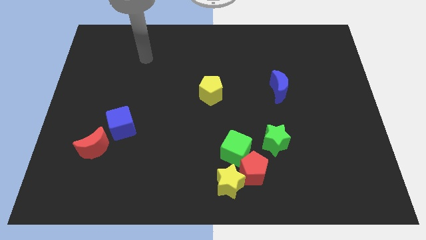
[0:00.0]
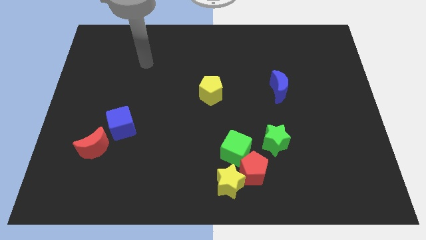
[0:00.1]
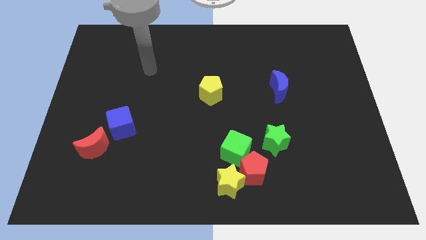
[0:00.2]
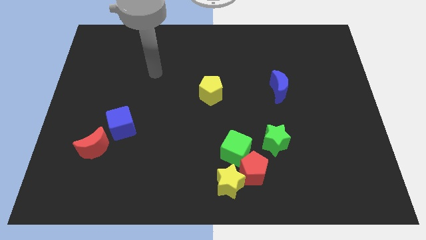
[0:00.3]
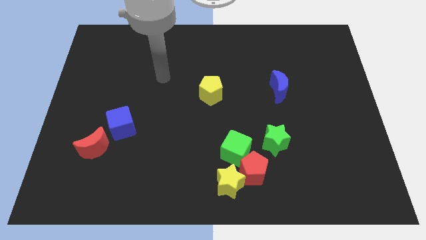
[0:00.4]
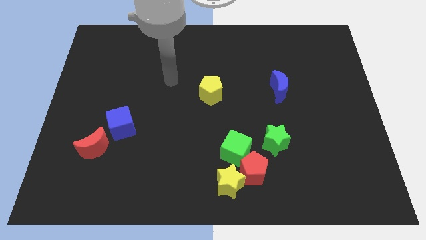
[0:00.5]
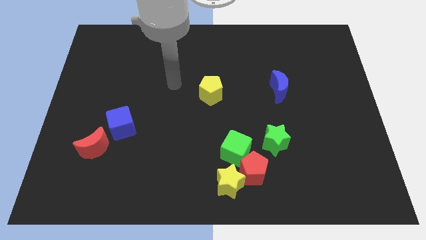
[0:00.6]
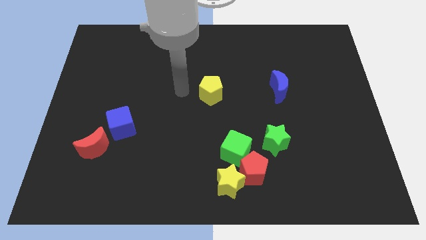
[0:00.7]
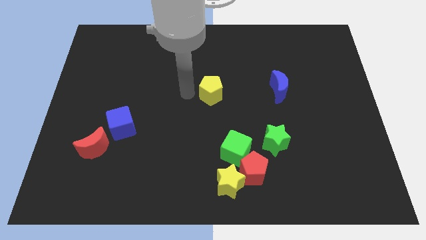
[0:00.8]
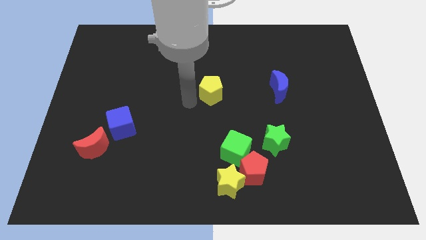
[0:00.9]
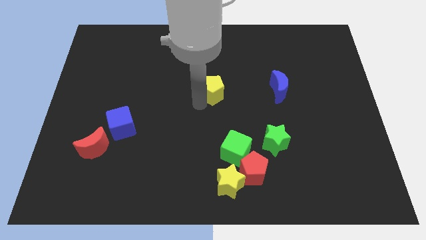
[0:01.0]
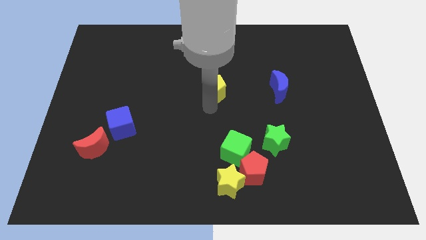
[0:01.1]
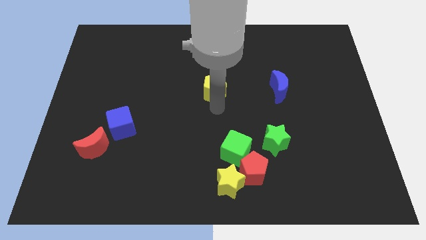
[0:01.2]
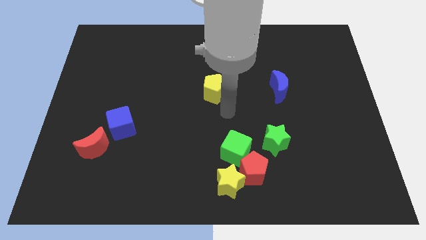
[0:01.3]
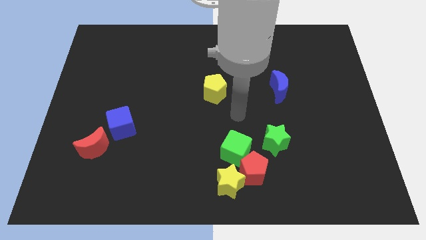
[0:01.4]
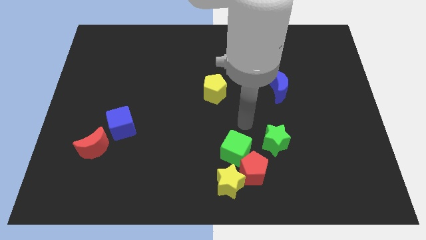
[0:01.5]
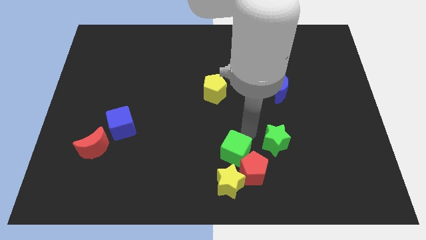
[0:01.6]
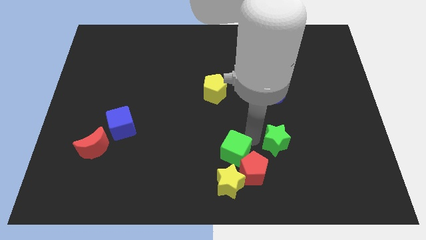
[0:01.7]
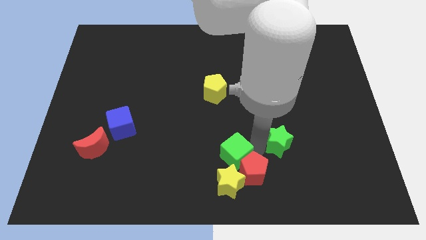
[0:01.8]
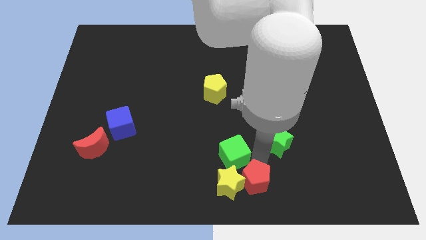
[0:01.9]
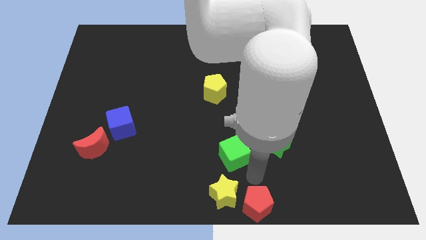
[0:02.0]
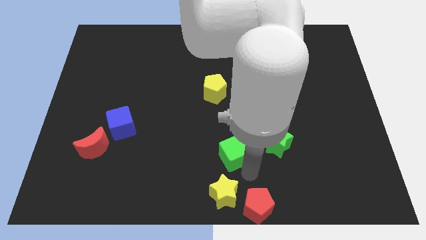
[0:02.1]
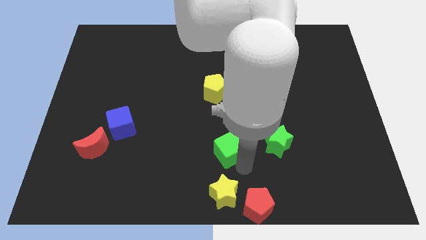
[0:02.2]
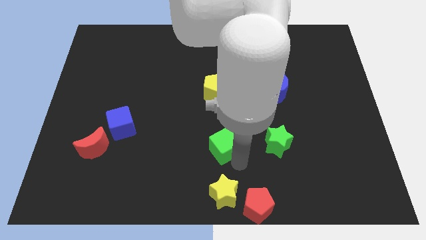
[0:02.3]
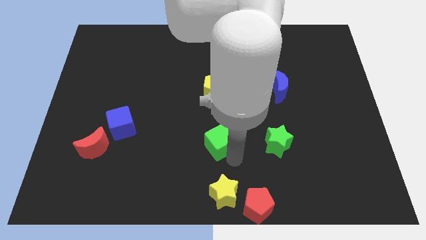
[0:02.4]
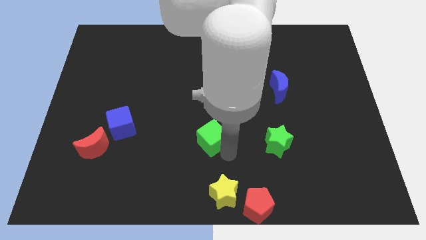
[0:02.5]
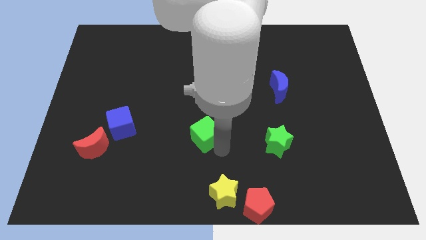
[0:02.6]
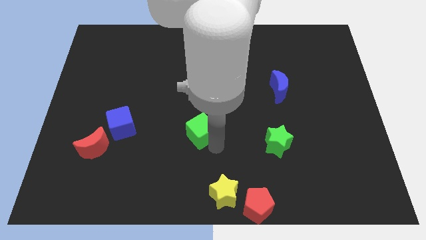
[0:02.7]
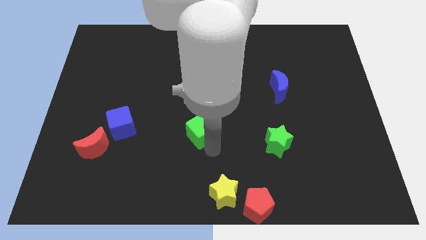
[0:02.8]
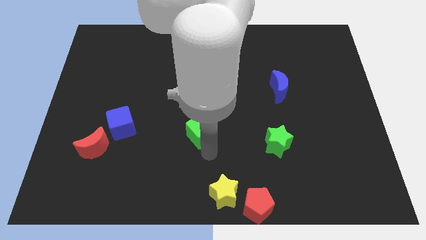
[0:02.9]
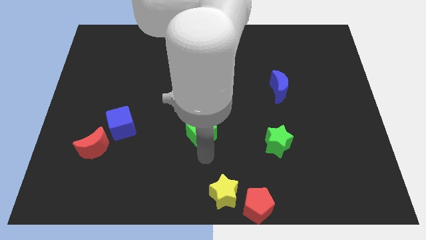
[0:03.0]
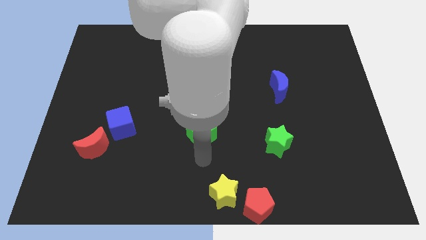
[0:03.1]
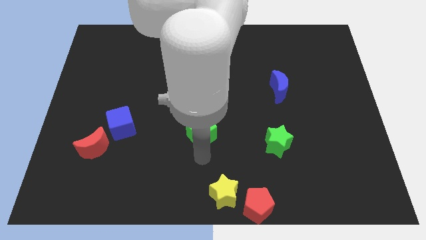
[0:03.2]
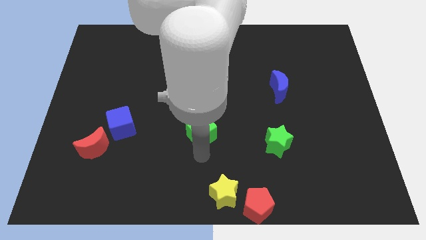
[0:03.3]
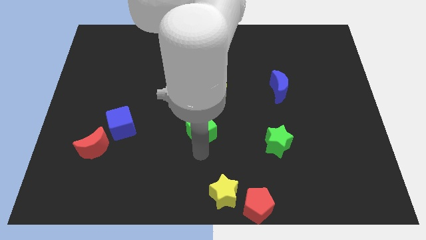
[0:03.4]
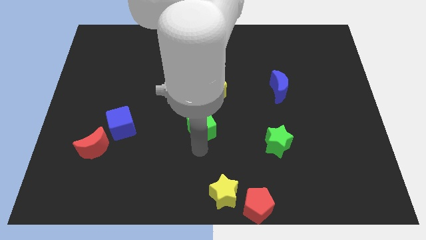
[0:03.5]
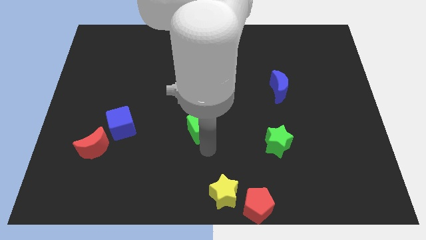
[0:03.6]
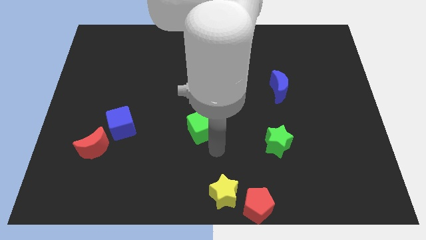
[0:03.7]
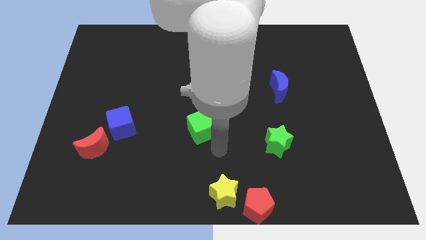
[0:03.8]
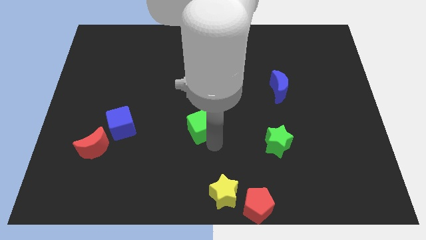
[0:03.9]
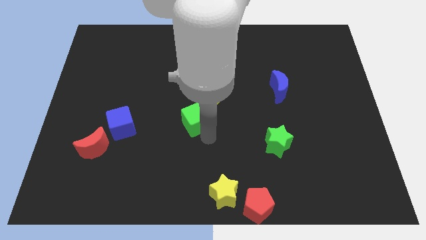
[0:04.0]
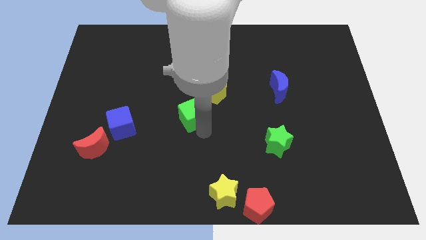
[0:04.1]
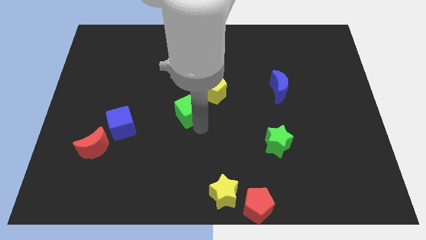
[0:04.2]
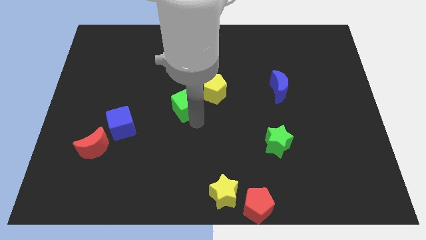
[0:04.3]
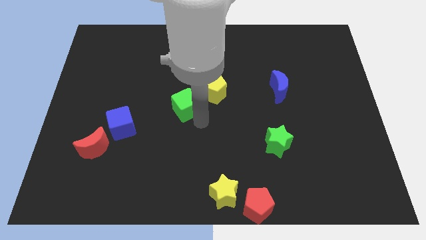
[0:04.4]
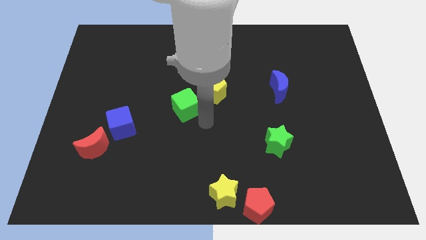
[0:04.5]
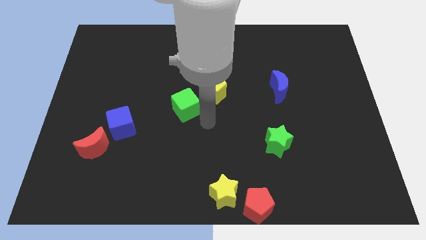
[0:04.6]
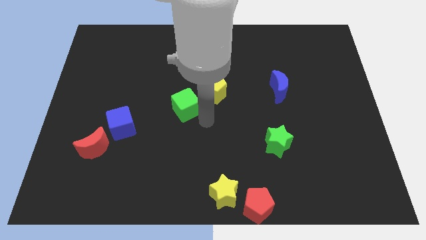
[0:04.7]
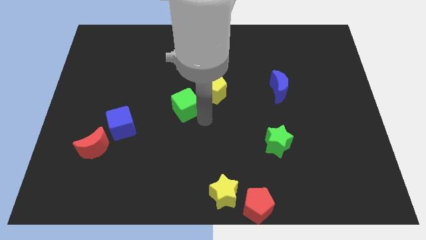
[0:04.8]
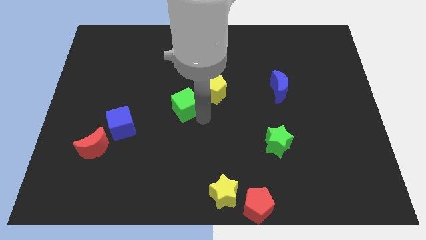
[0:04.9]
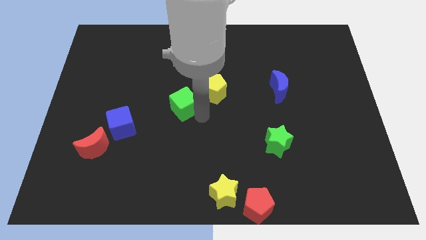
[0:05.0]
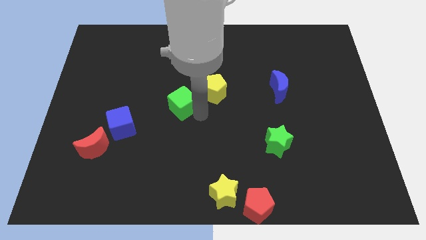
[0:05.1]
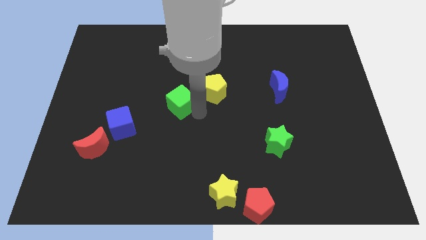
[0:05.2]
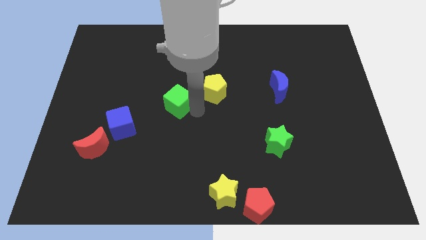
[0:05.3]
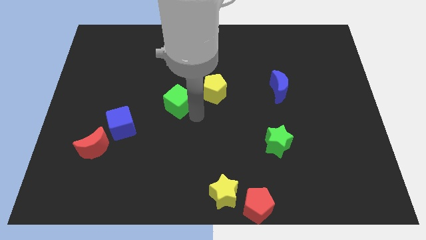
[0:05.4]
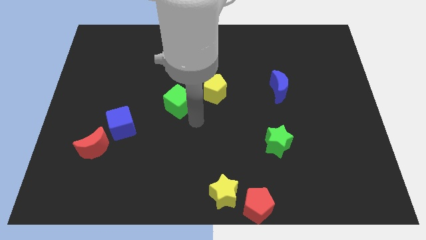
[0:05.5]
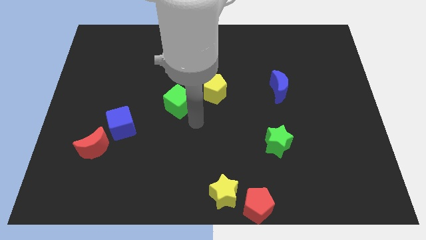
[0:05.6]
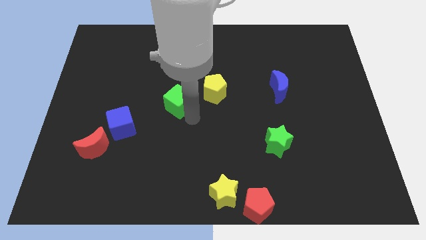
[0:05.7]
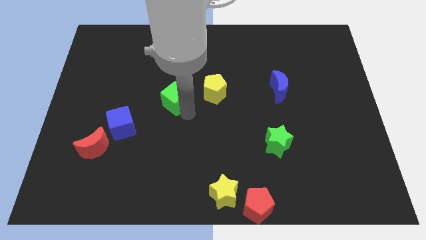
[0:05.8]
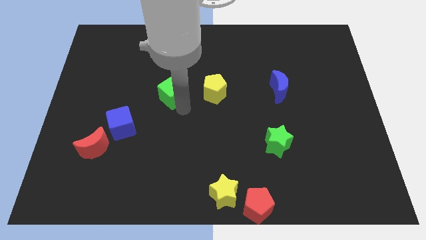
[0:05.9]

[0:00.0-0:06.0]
push the green cube up and to the left diagonally

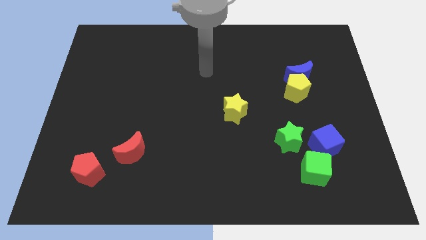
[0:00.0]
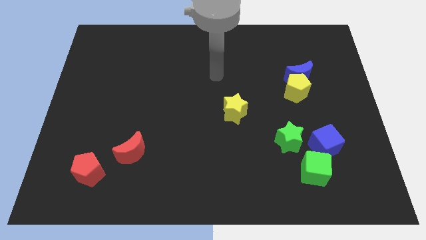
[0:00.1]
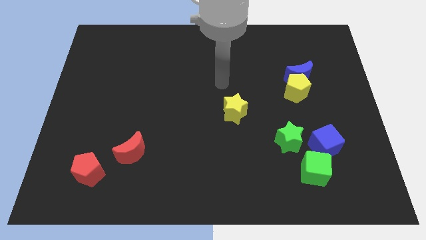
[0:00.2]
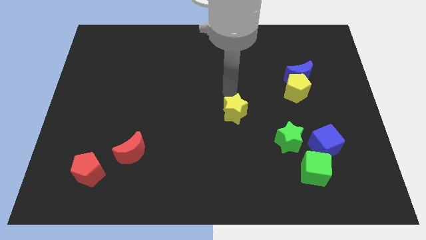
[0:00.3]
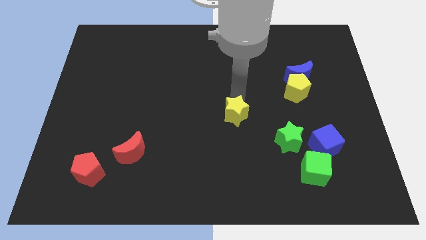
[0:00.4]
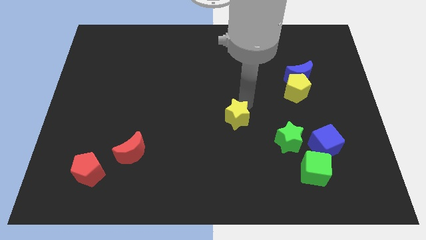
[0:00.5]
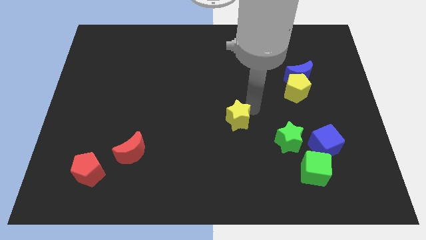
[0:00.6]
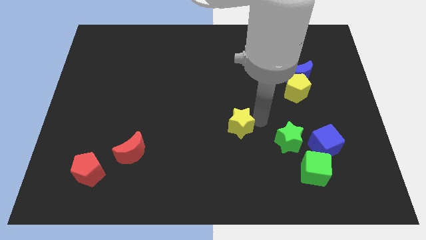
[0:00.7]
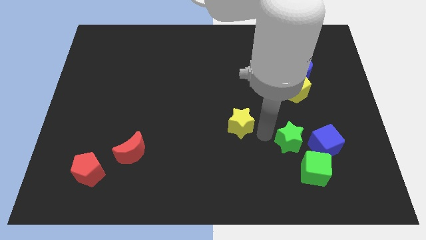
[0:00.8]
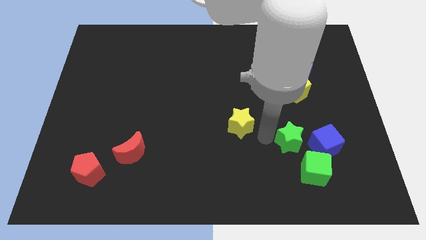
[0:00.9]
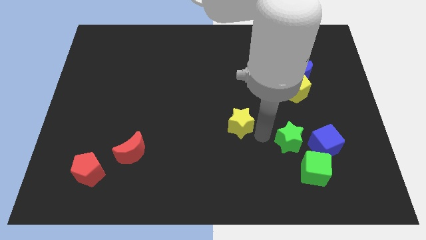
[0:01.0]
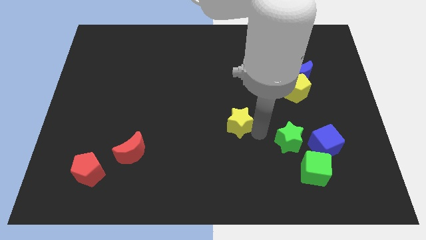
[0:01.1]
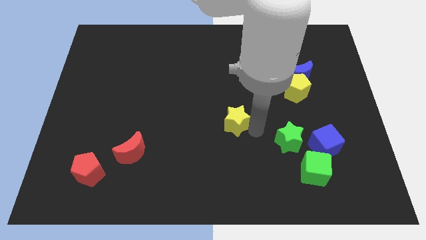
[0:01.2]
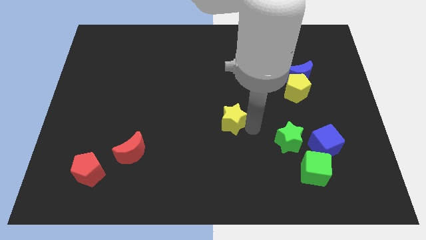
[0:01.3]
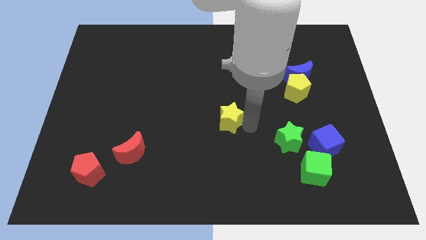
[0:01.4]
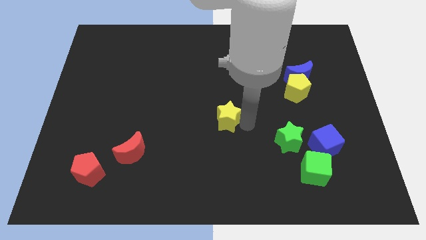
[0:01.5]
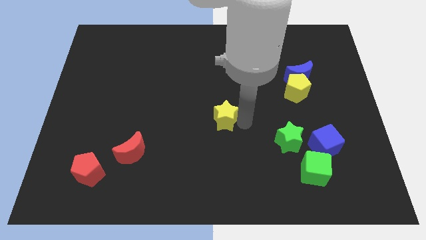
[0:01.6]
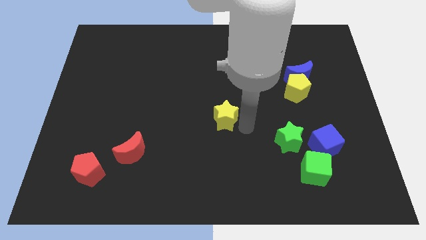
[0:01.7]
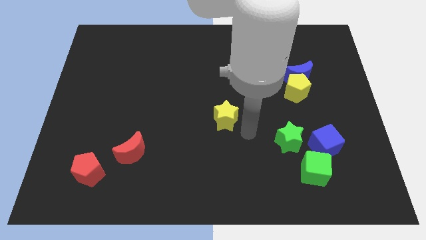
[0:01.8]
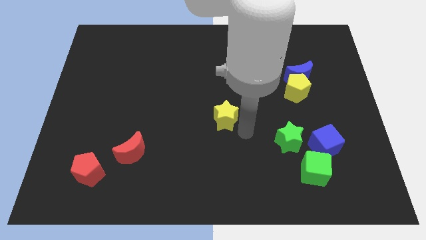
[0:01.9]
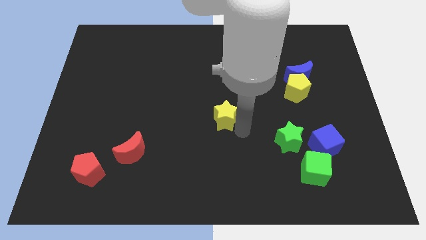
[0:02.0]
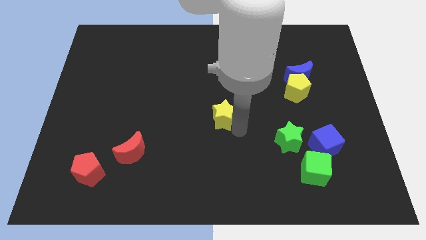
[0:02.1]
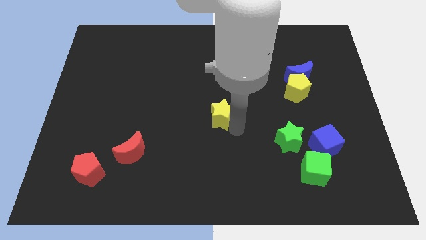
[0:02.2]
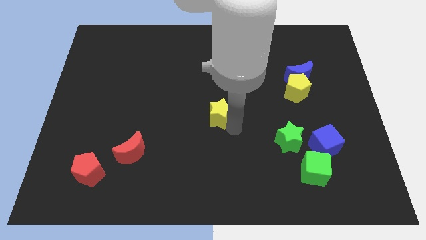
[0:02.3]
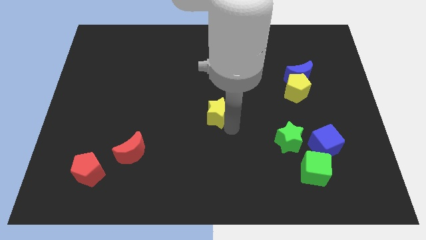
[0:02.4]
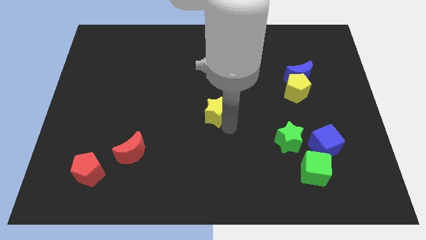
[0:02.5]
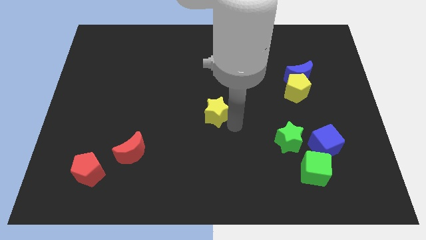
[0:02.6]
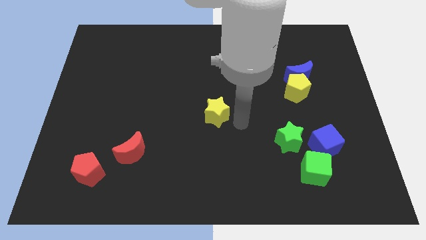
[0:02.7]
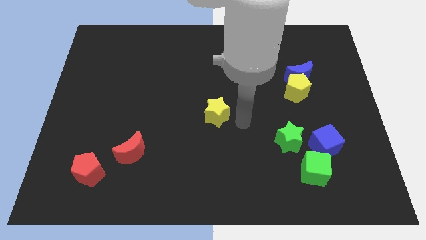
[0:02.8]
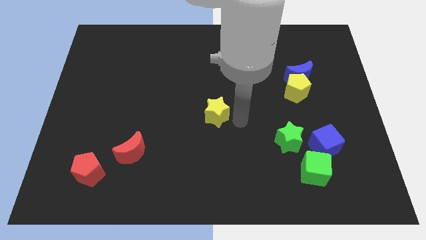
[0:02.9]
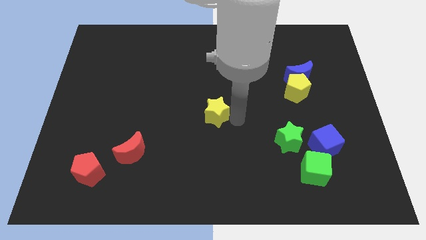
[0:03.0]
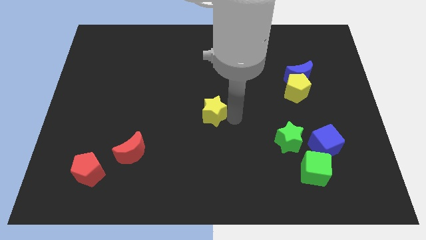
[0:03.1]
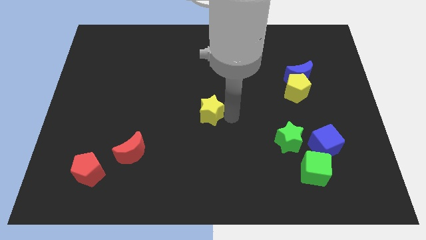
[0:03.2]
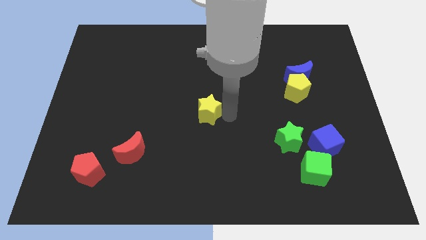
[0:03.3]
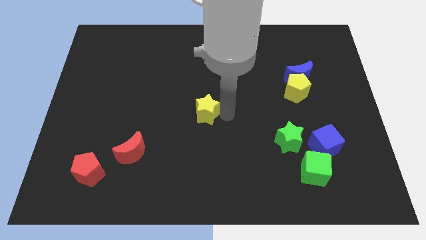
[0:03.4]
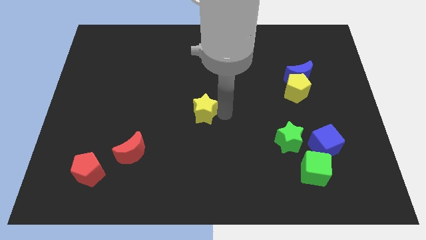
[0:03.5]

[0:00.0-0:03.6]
slightly push the yellow star left
